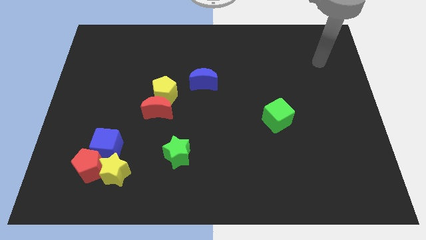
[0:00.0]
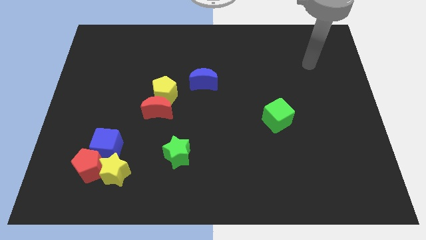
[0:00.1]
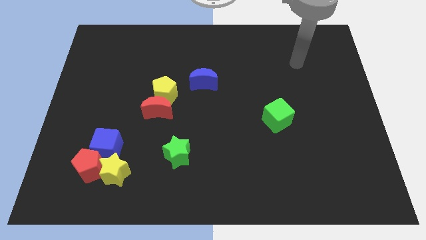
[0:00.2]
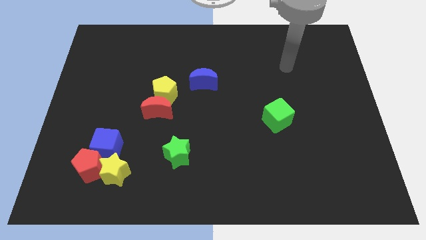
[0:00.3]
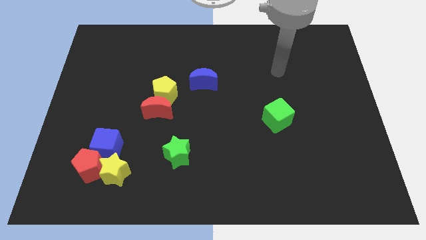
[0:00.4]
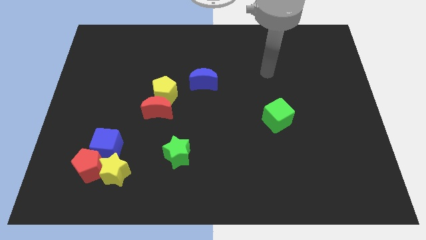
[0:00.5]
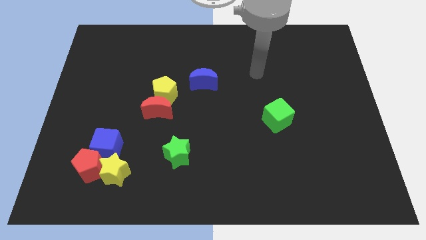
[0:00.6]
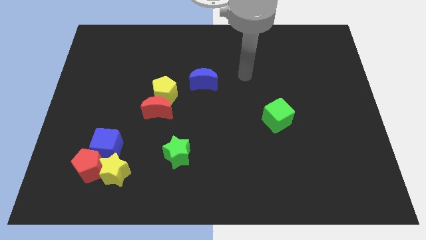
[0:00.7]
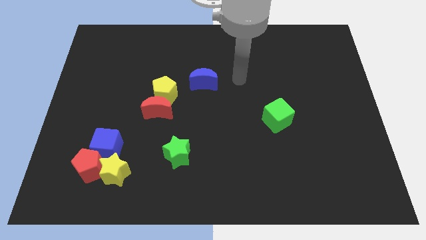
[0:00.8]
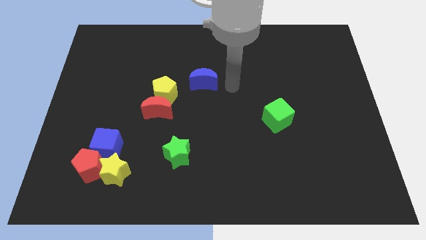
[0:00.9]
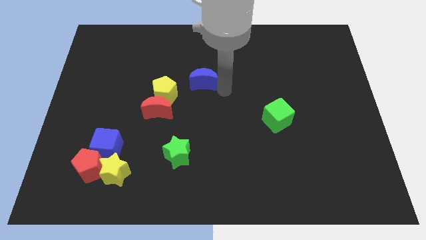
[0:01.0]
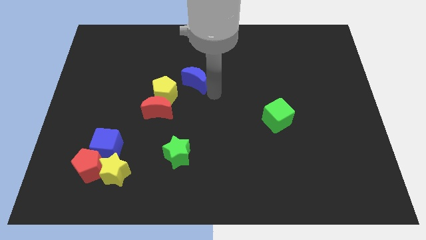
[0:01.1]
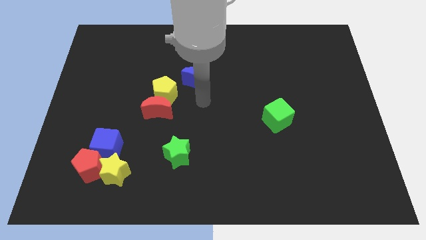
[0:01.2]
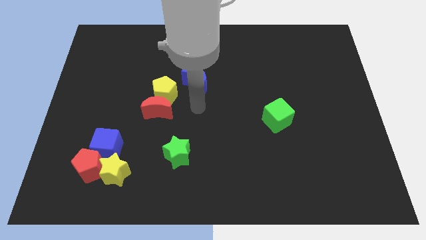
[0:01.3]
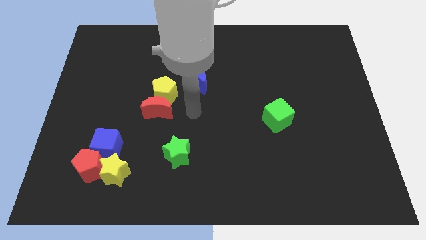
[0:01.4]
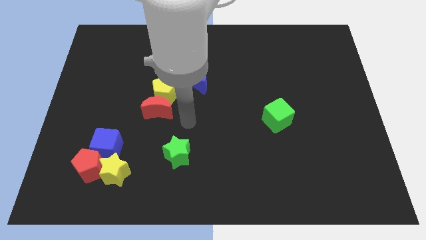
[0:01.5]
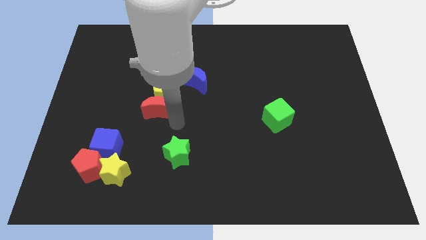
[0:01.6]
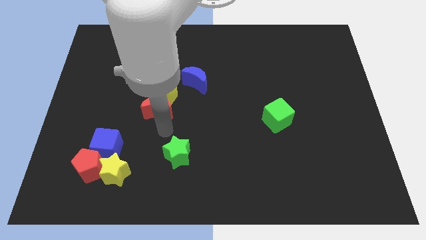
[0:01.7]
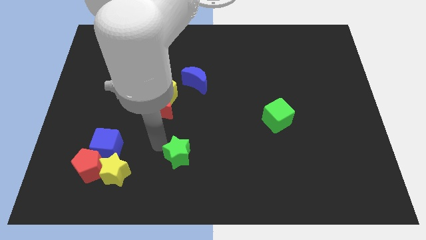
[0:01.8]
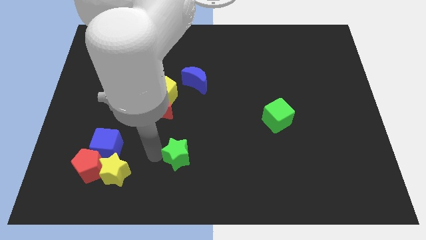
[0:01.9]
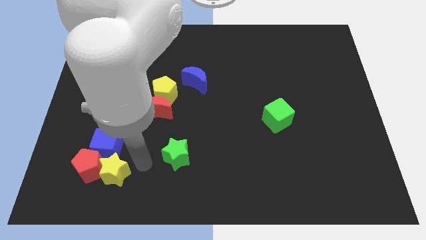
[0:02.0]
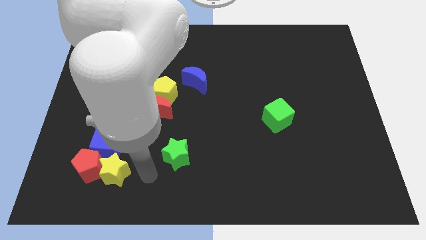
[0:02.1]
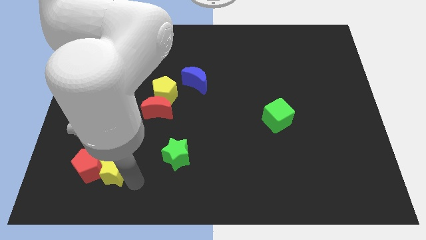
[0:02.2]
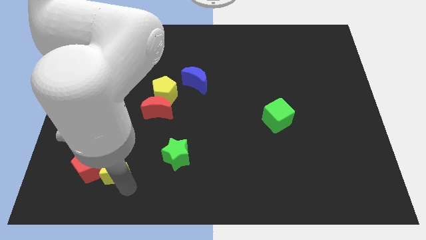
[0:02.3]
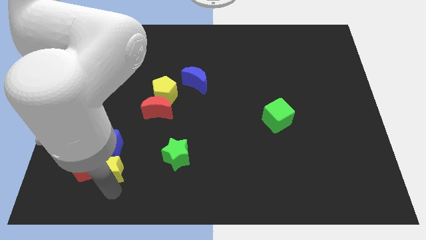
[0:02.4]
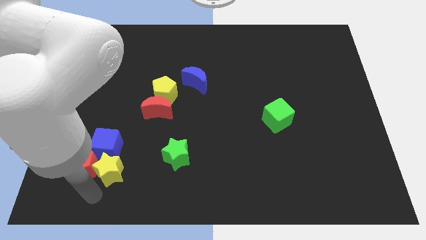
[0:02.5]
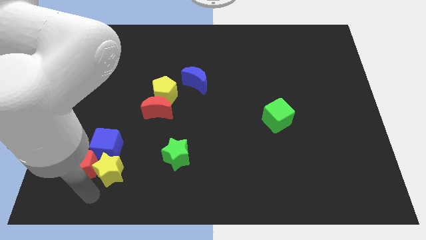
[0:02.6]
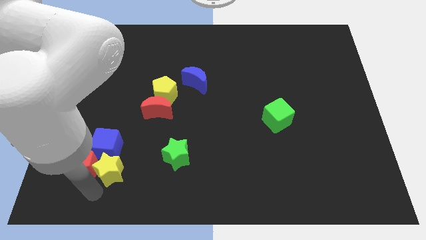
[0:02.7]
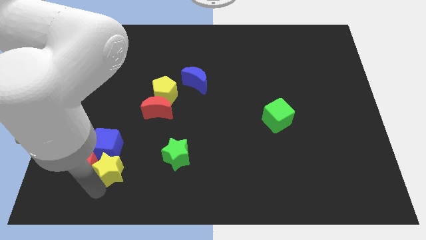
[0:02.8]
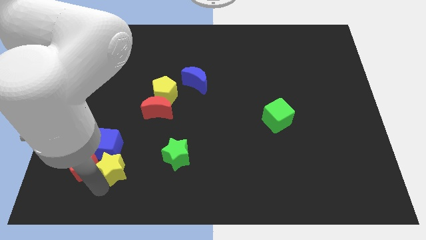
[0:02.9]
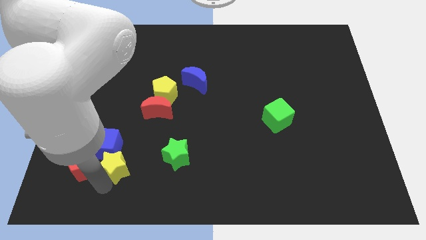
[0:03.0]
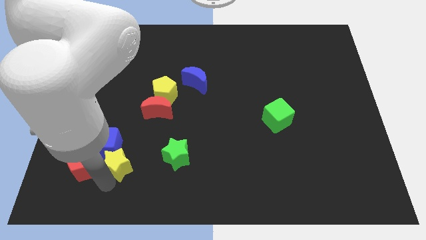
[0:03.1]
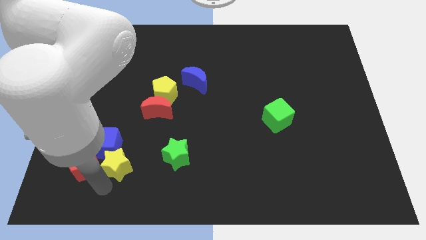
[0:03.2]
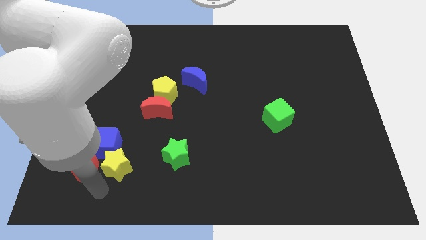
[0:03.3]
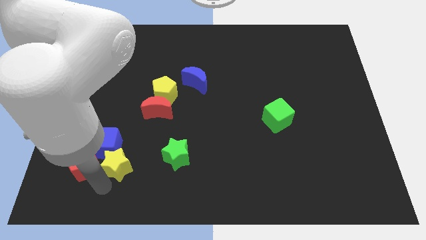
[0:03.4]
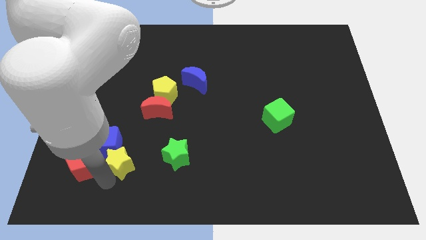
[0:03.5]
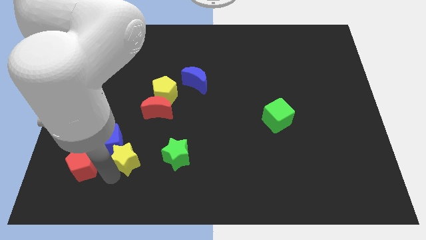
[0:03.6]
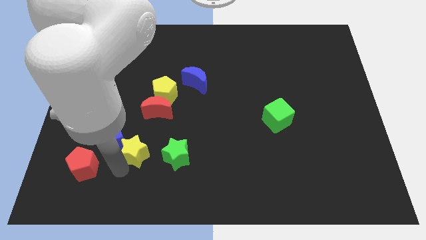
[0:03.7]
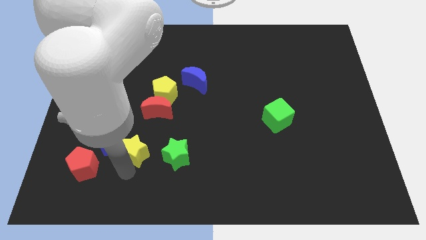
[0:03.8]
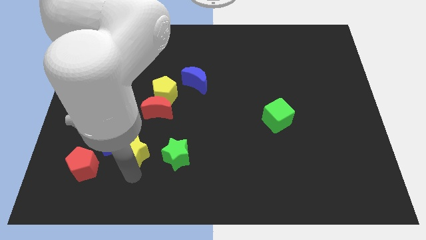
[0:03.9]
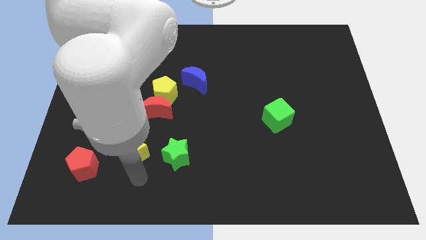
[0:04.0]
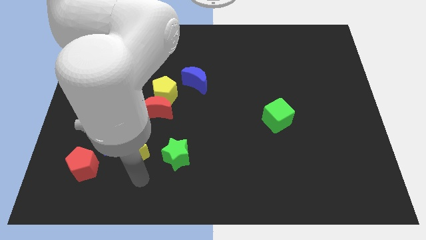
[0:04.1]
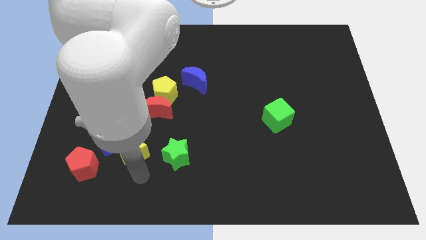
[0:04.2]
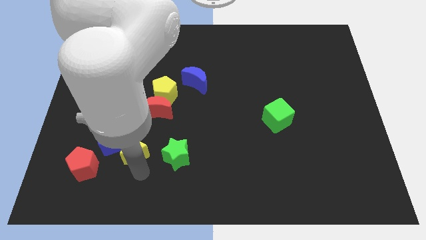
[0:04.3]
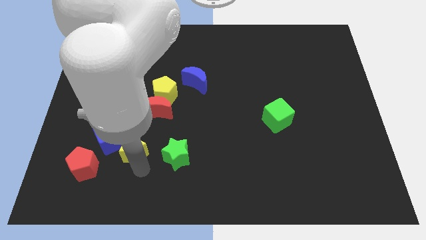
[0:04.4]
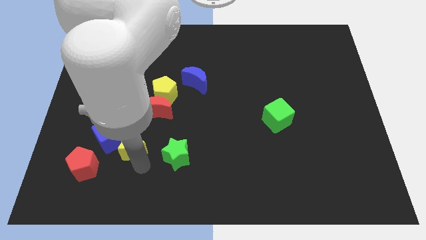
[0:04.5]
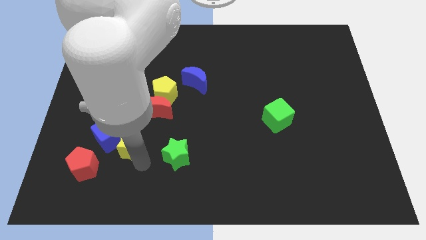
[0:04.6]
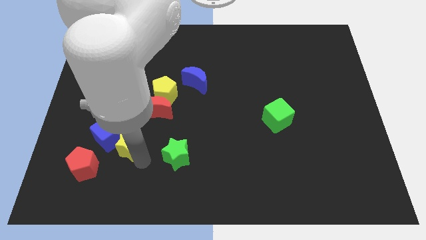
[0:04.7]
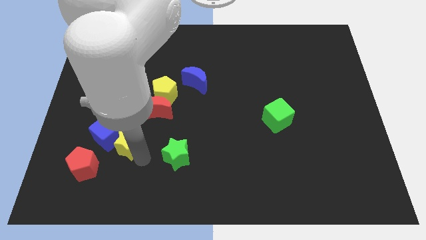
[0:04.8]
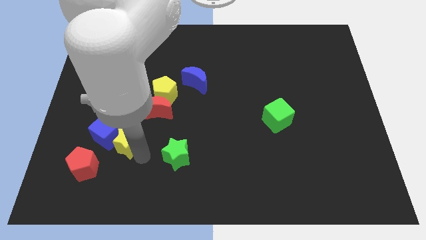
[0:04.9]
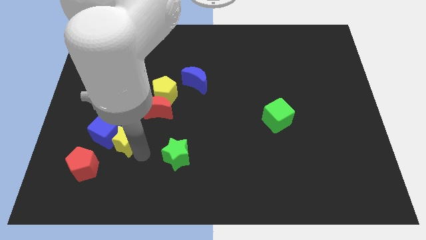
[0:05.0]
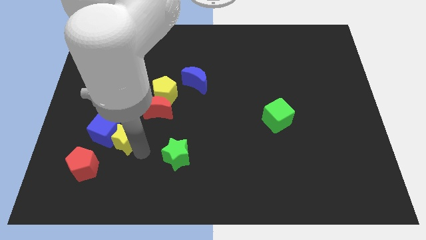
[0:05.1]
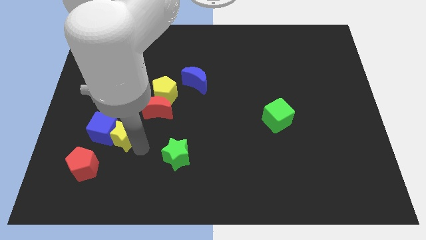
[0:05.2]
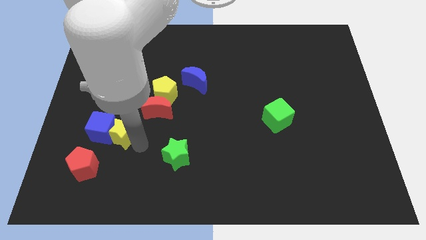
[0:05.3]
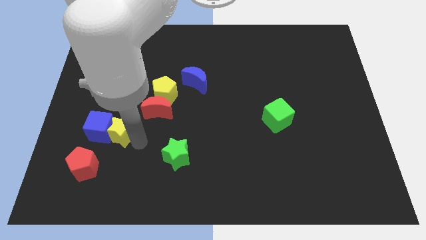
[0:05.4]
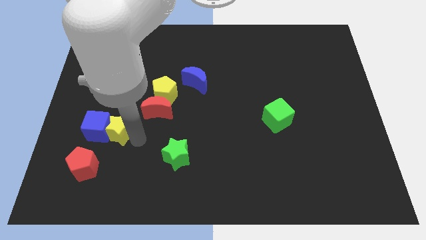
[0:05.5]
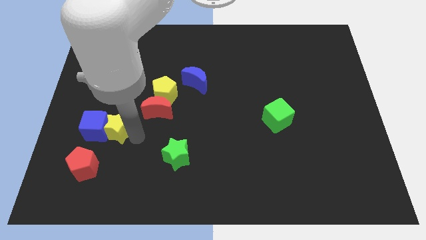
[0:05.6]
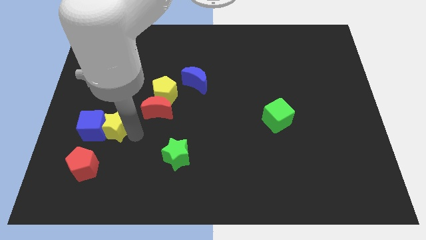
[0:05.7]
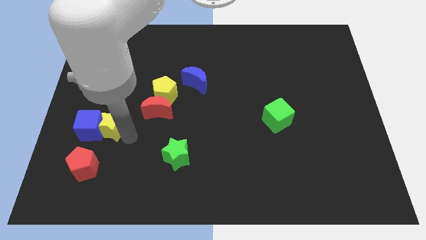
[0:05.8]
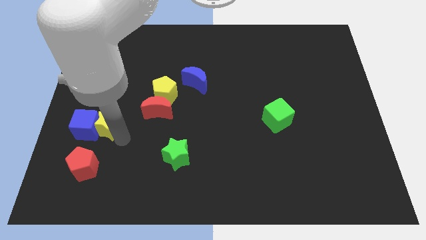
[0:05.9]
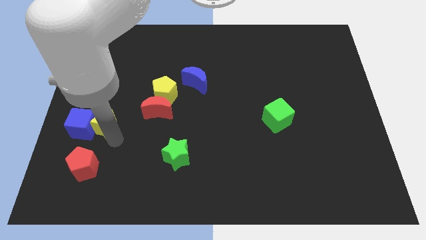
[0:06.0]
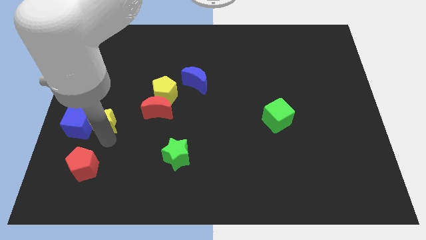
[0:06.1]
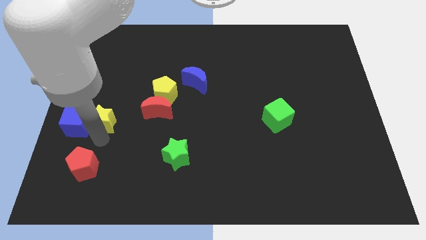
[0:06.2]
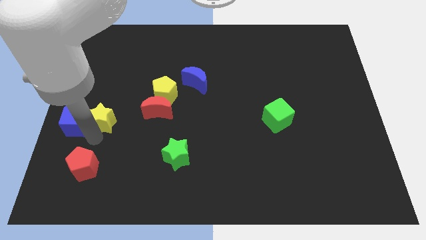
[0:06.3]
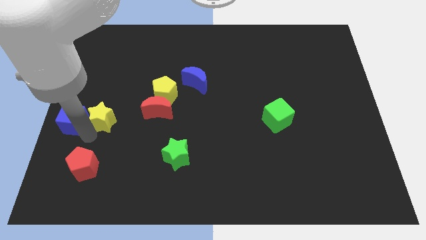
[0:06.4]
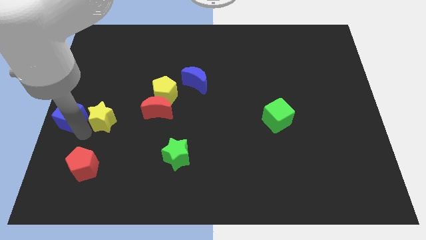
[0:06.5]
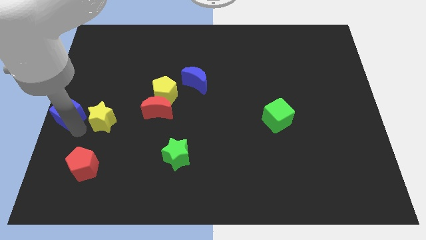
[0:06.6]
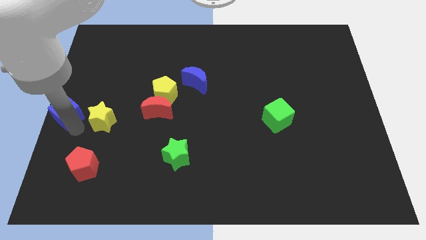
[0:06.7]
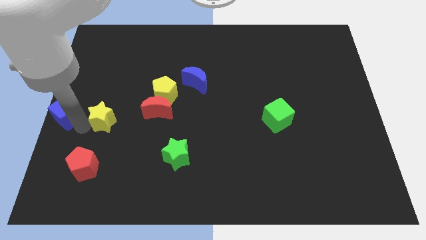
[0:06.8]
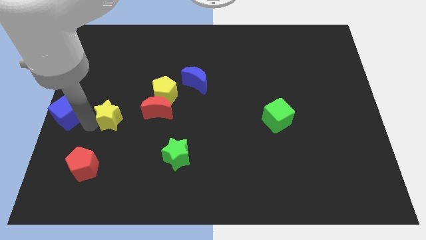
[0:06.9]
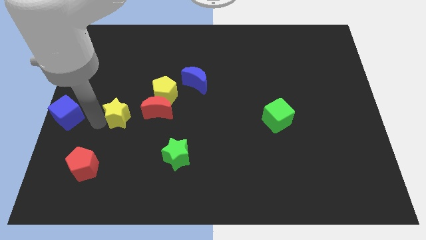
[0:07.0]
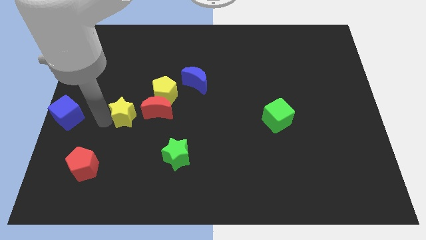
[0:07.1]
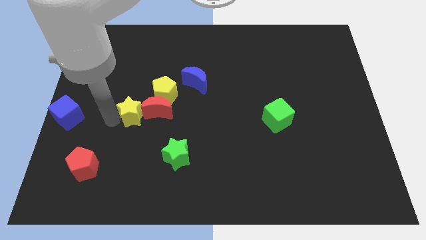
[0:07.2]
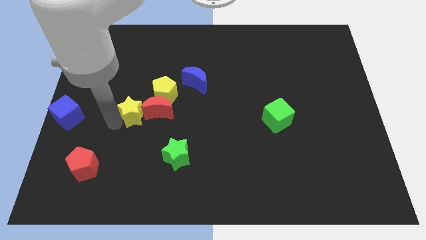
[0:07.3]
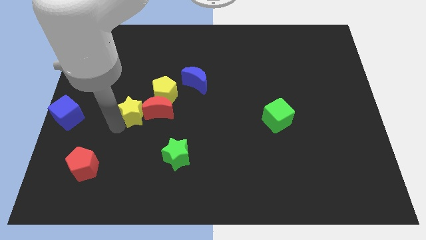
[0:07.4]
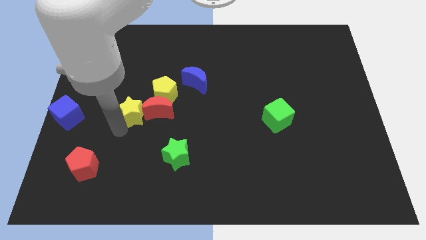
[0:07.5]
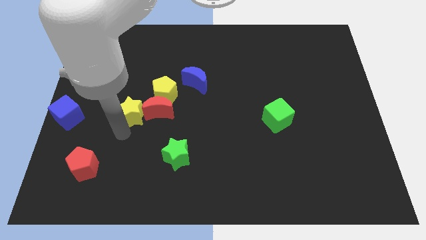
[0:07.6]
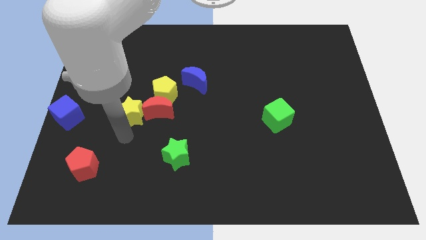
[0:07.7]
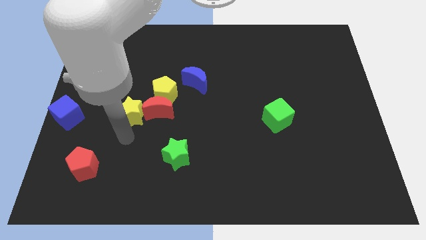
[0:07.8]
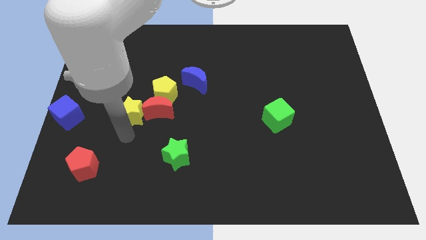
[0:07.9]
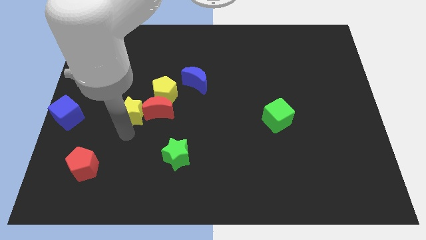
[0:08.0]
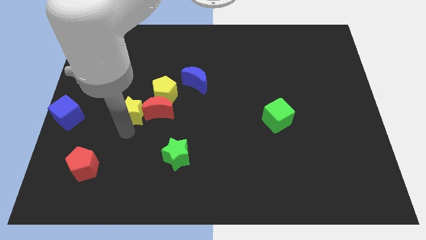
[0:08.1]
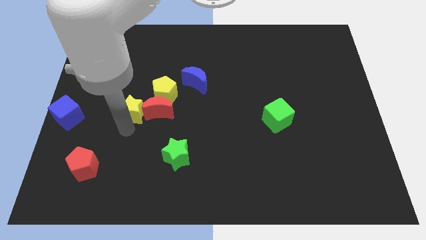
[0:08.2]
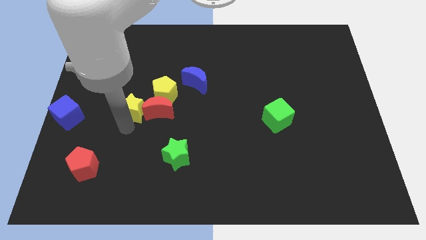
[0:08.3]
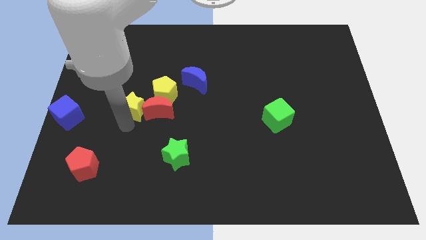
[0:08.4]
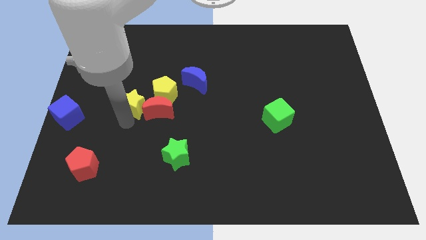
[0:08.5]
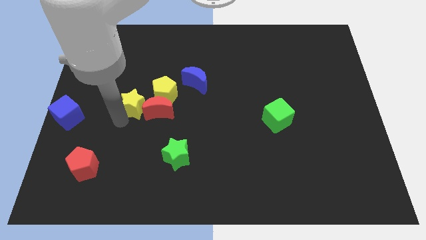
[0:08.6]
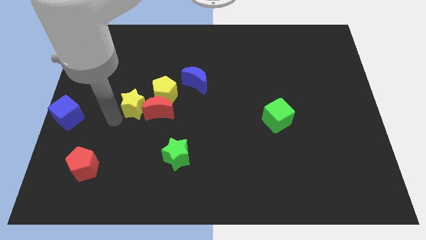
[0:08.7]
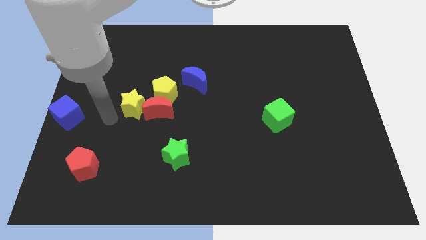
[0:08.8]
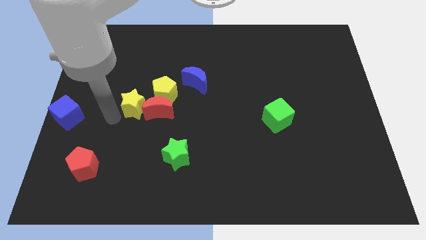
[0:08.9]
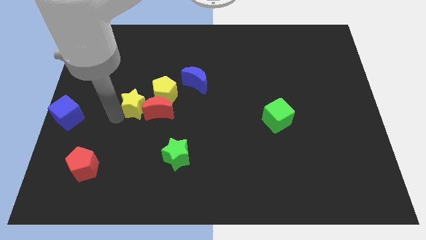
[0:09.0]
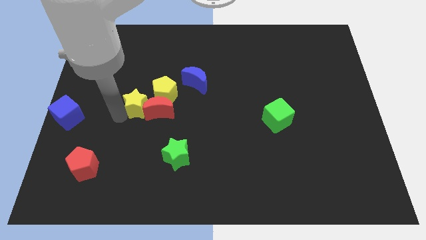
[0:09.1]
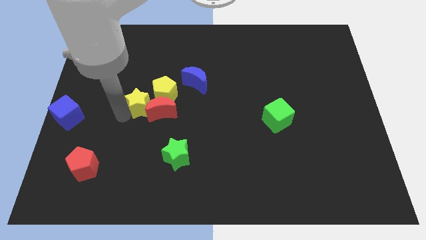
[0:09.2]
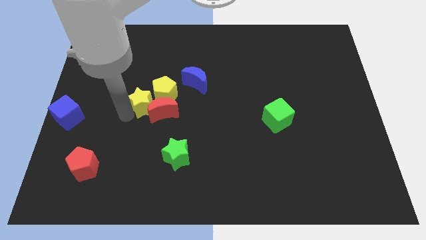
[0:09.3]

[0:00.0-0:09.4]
move the yellow star next to the yellow pentagon
